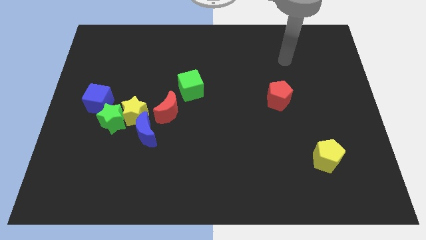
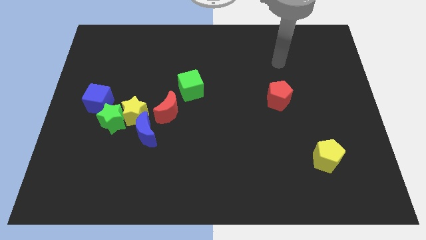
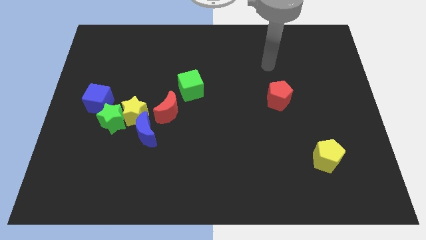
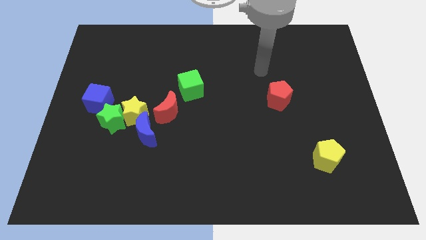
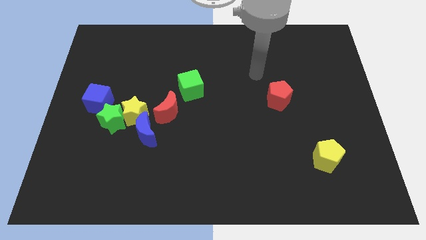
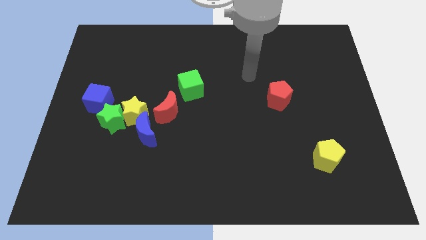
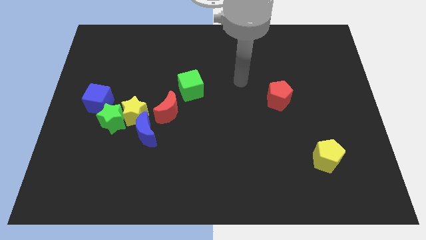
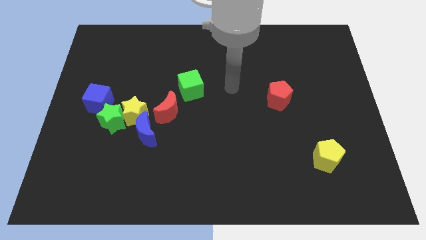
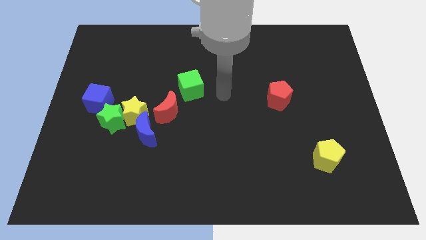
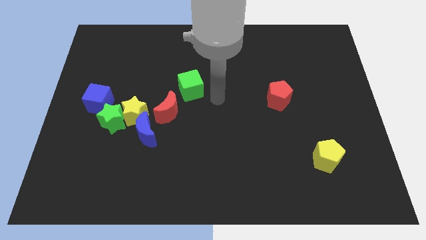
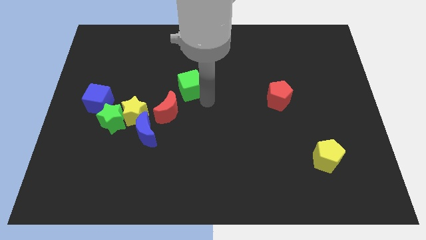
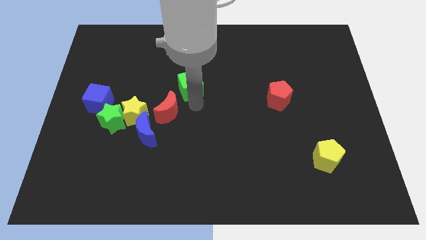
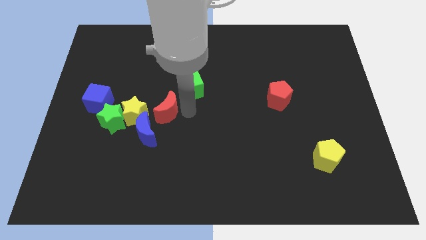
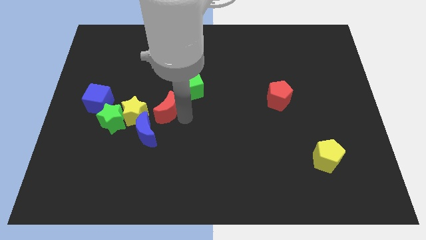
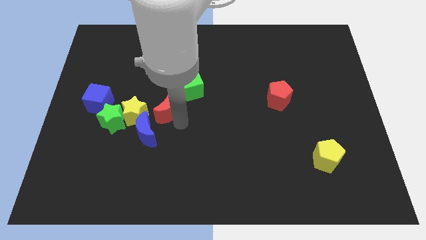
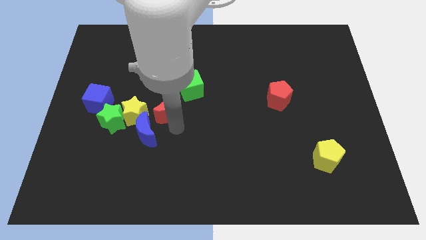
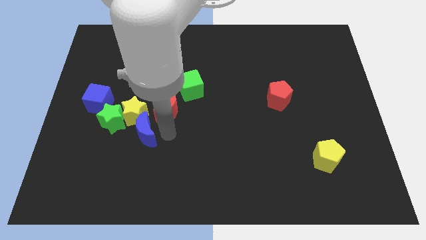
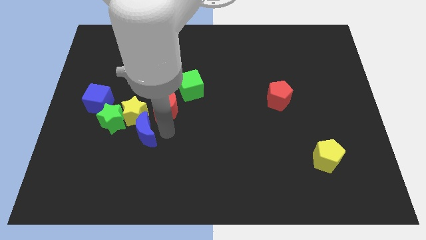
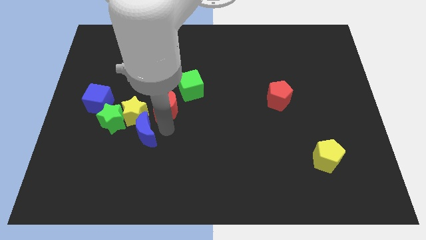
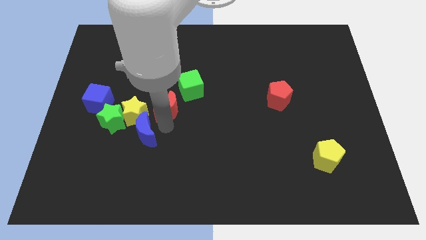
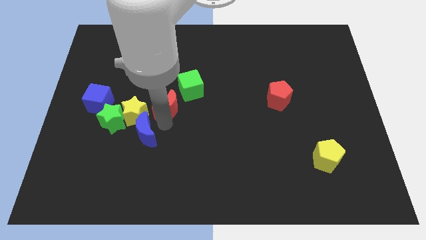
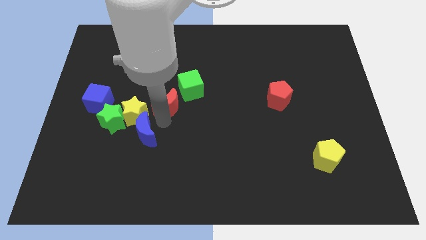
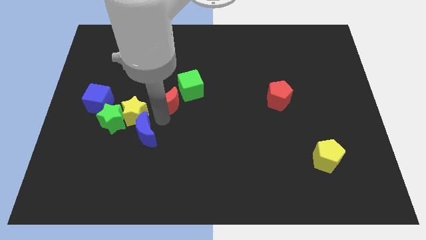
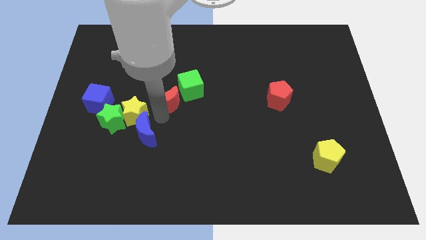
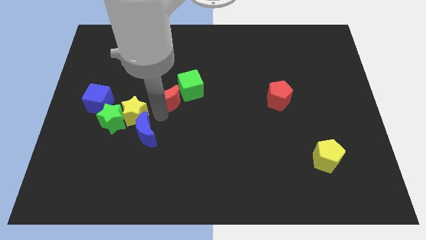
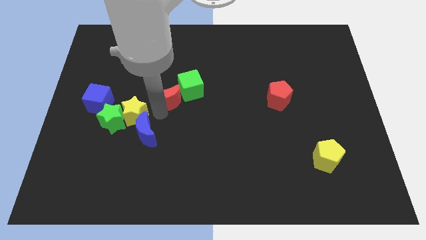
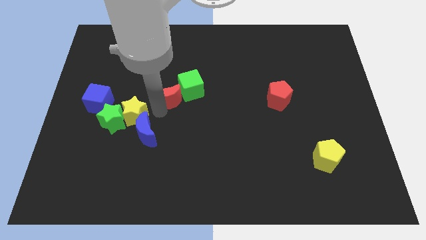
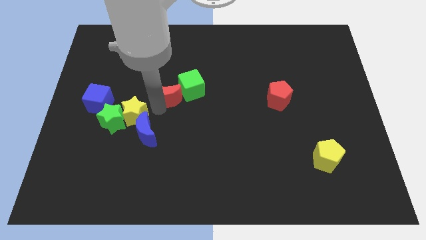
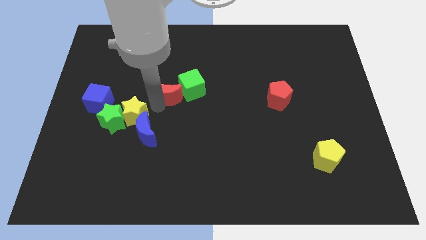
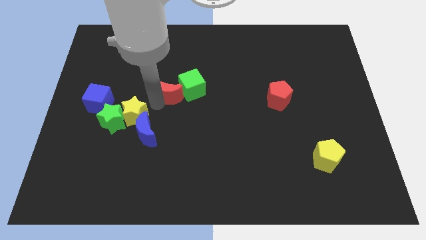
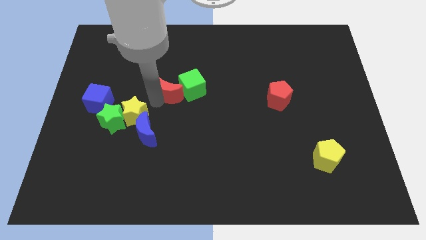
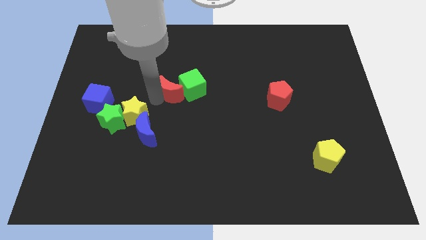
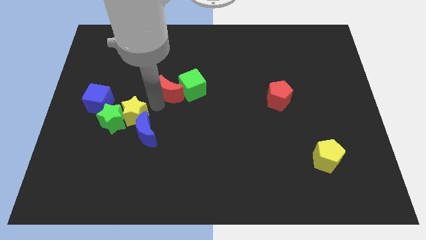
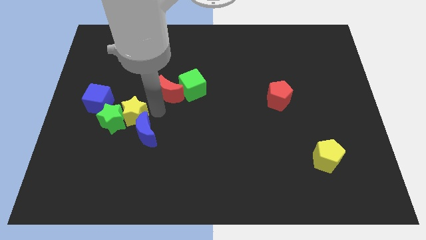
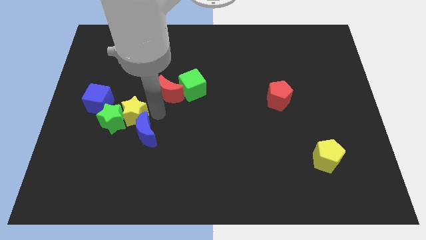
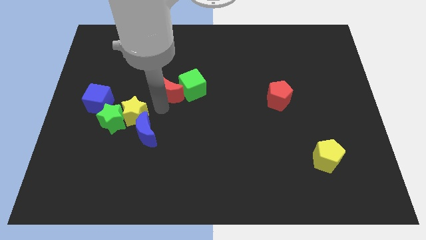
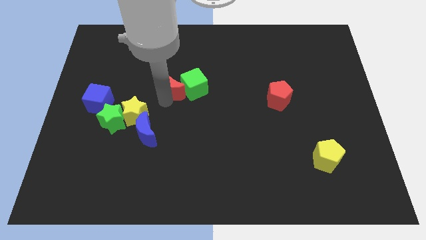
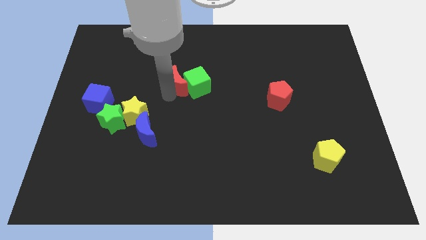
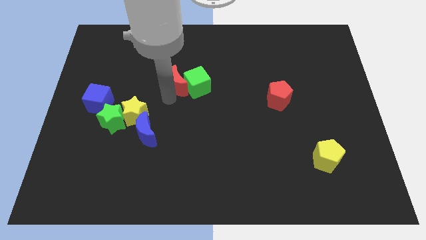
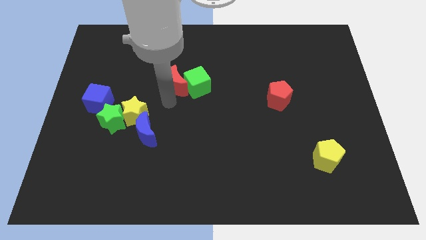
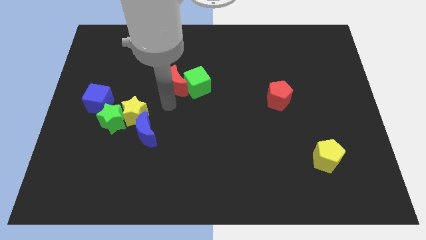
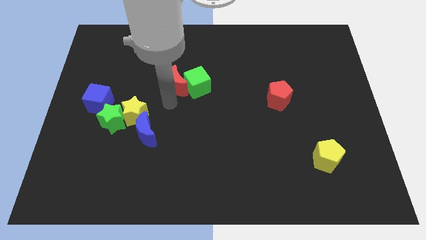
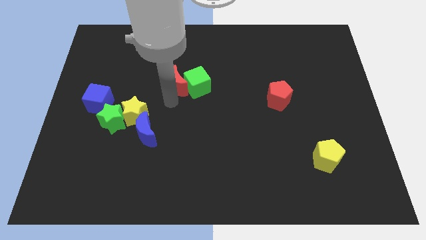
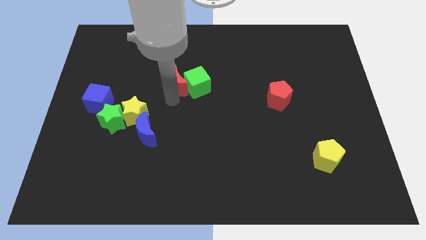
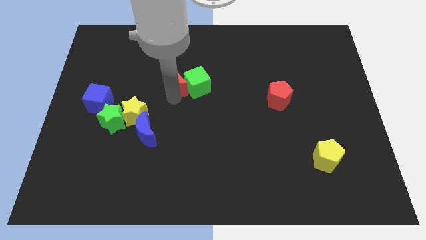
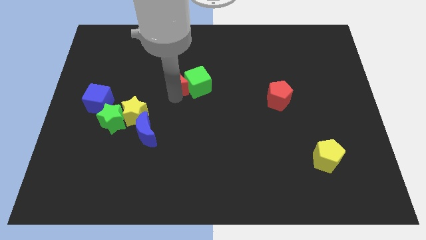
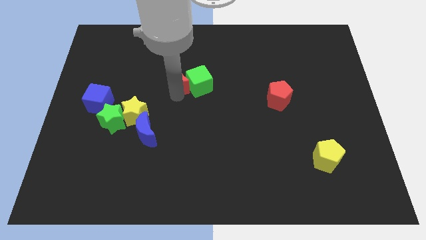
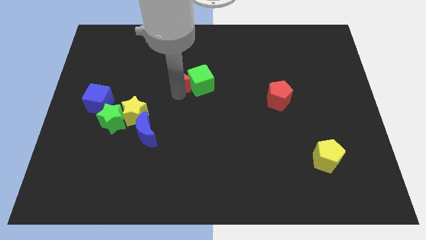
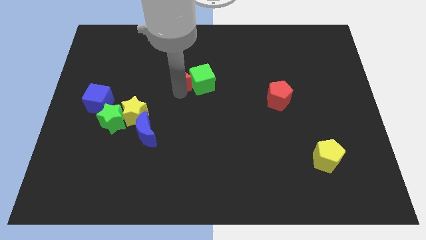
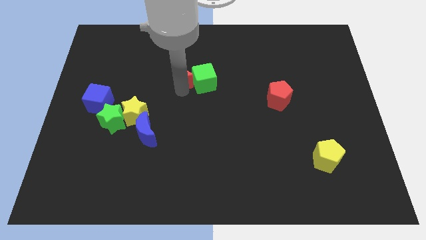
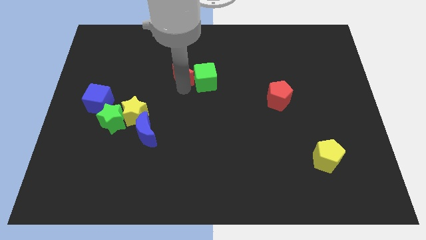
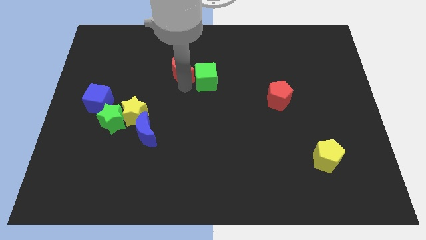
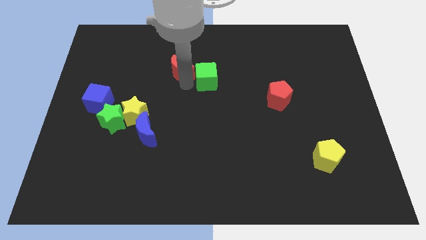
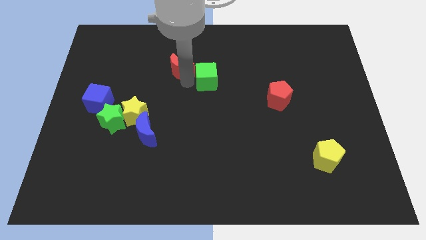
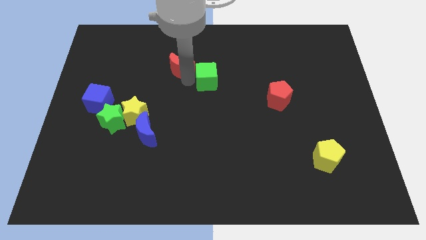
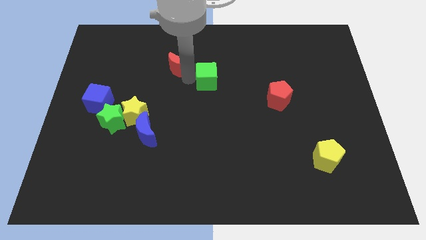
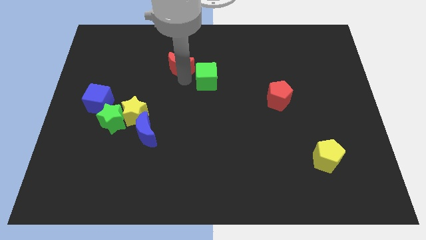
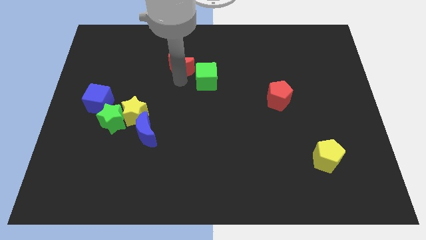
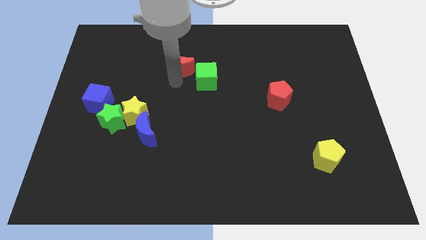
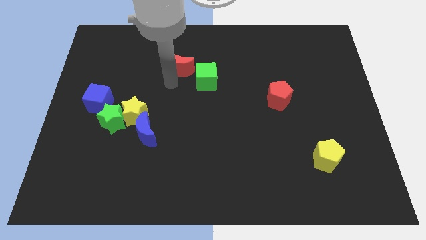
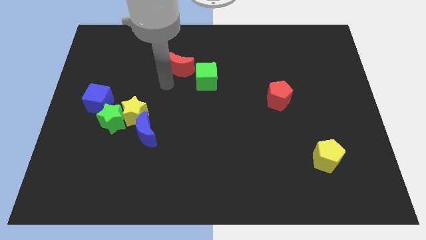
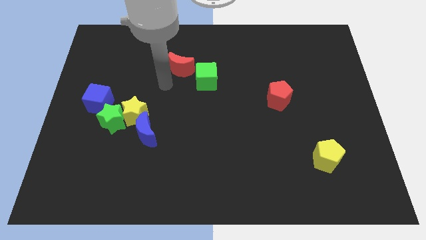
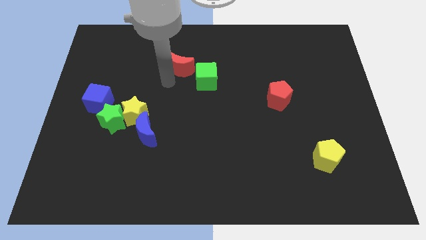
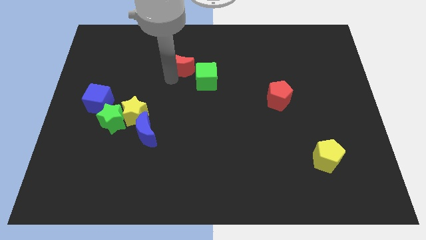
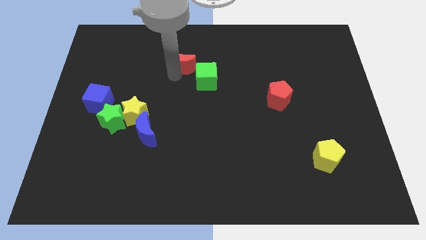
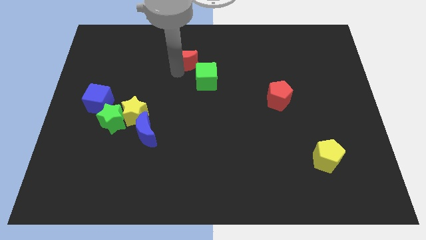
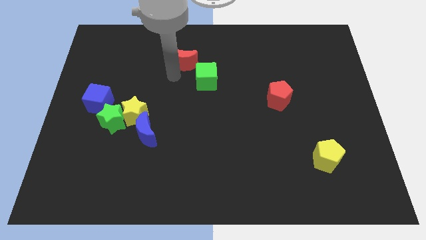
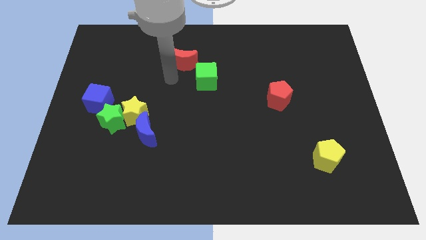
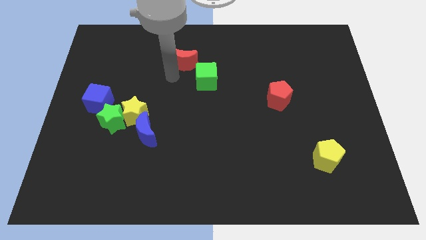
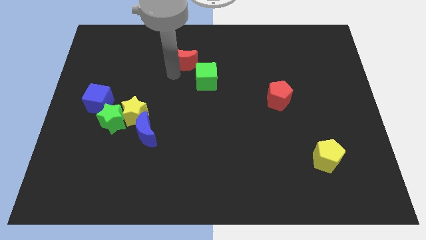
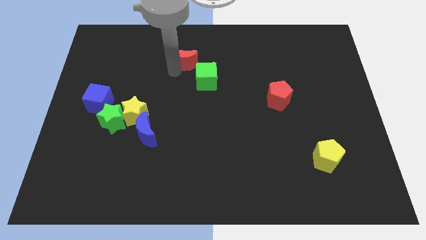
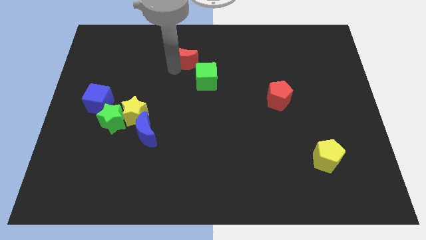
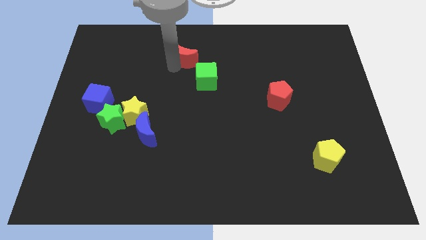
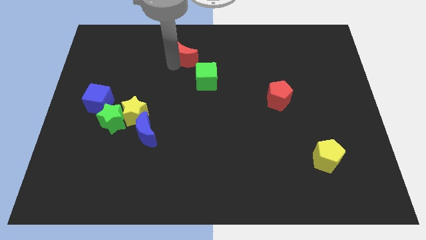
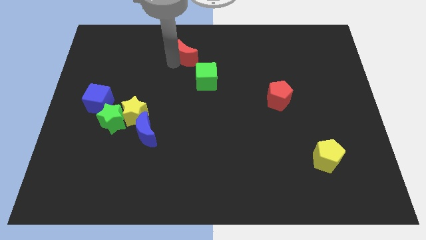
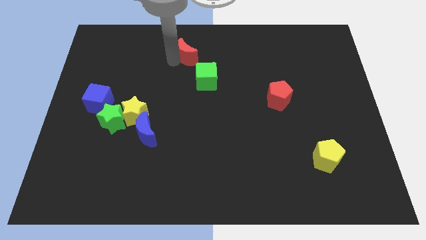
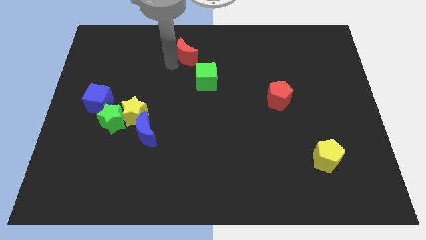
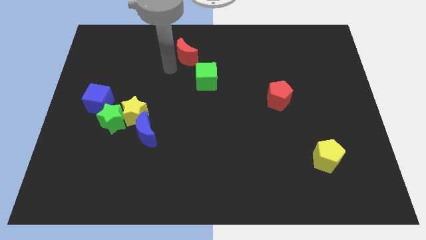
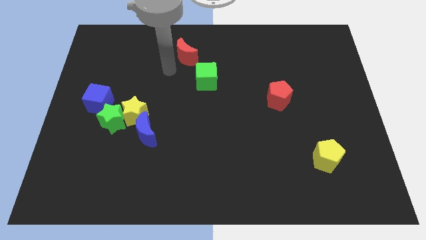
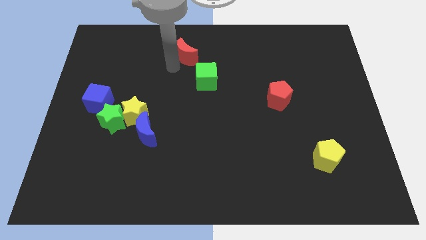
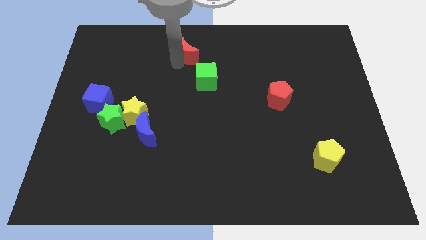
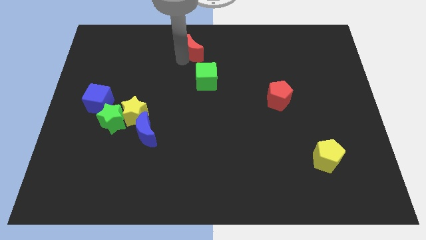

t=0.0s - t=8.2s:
put the red moon to the top
